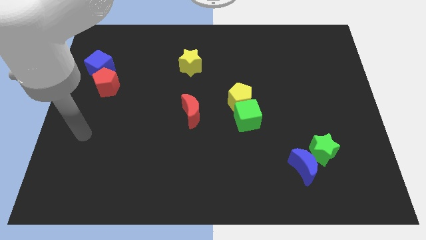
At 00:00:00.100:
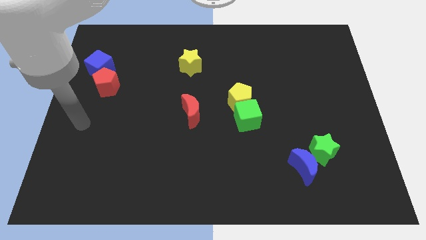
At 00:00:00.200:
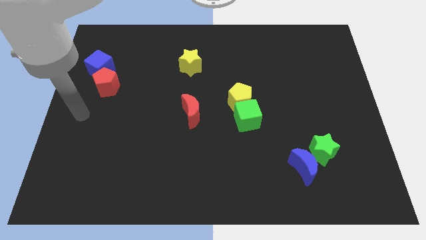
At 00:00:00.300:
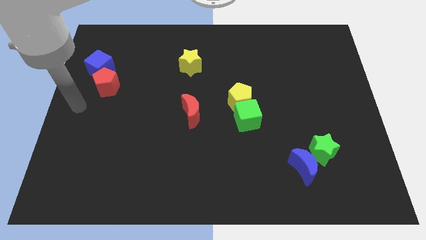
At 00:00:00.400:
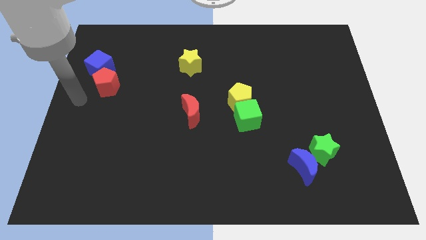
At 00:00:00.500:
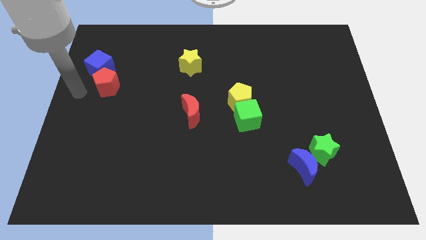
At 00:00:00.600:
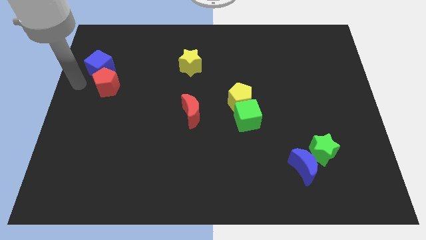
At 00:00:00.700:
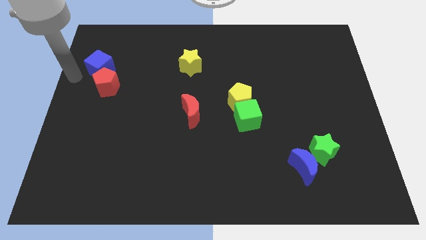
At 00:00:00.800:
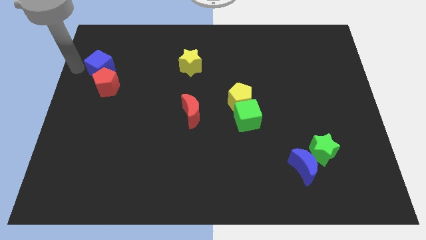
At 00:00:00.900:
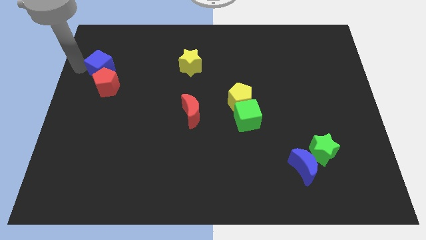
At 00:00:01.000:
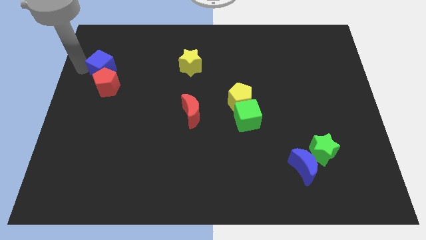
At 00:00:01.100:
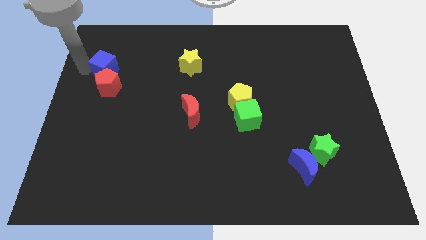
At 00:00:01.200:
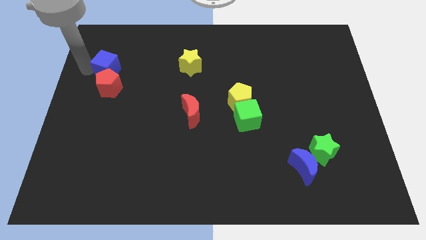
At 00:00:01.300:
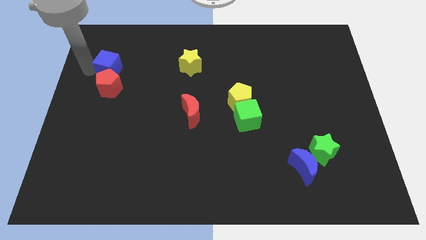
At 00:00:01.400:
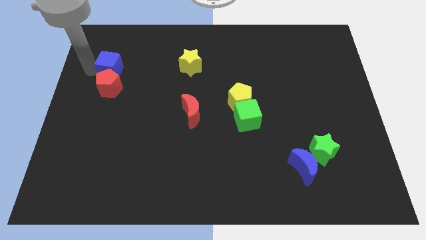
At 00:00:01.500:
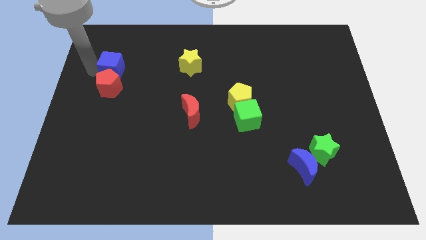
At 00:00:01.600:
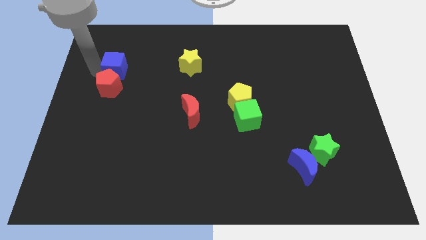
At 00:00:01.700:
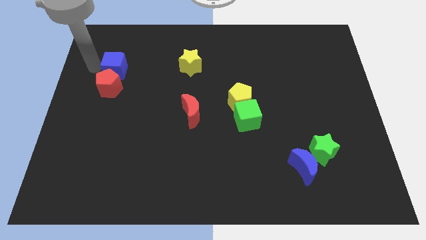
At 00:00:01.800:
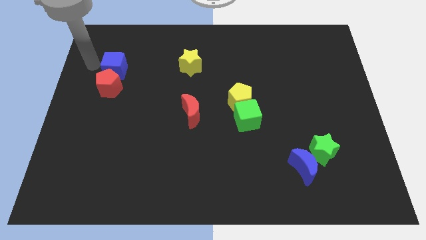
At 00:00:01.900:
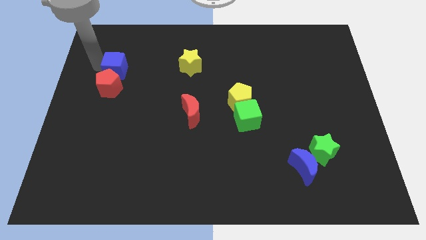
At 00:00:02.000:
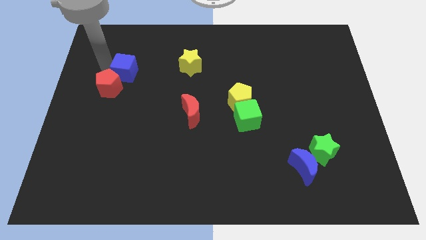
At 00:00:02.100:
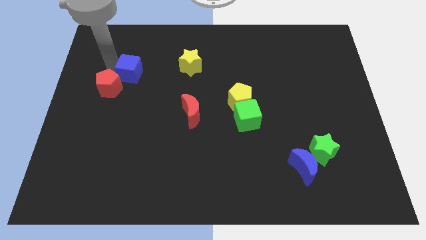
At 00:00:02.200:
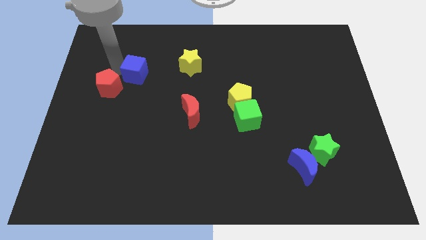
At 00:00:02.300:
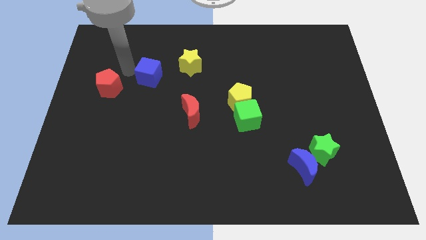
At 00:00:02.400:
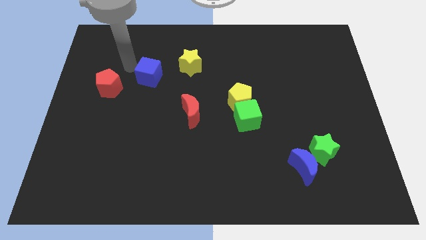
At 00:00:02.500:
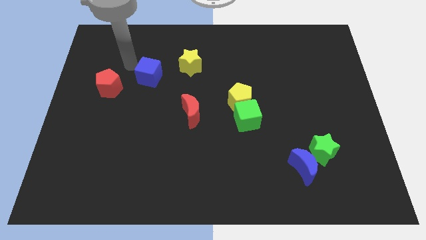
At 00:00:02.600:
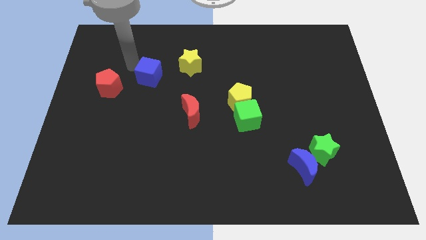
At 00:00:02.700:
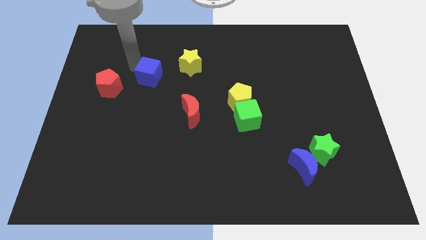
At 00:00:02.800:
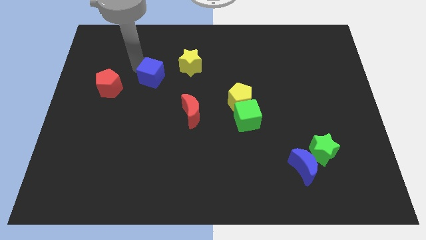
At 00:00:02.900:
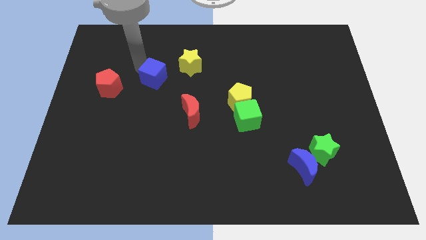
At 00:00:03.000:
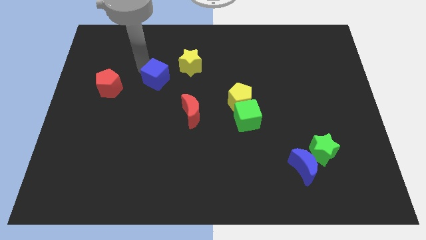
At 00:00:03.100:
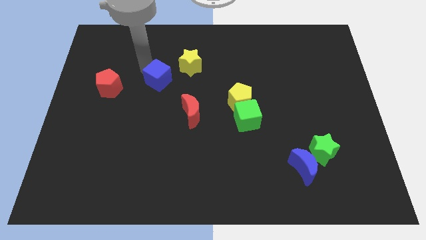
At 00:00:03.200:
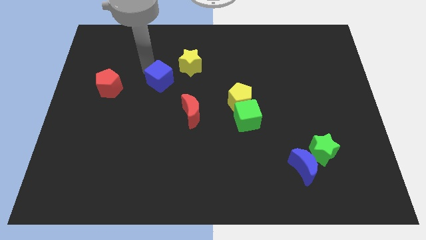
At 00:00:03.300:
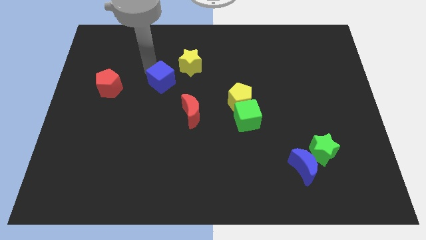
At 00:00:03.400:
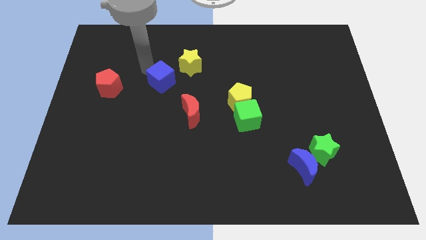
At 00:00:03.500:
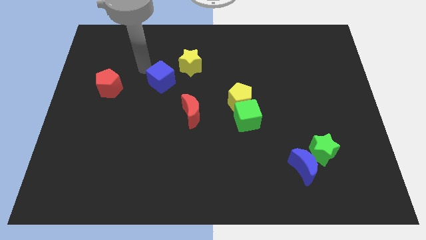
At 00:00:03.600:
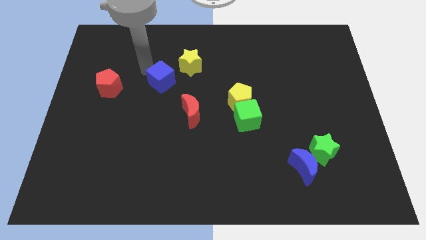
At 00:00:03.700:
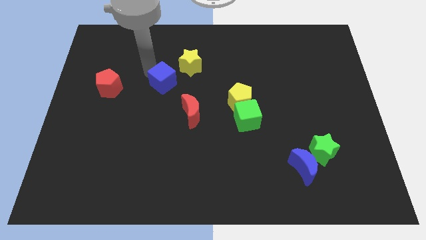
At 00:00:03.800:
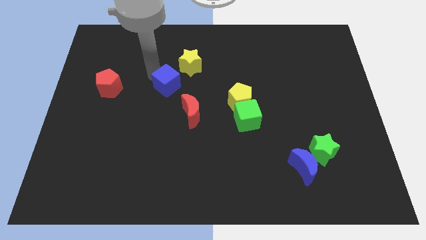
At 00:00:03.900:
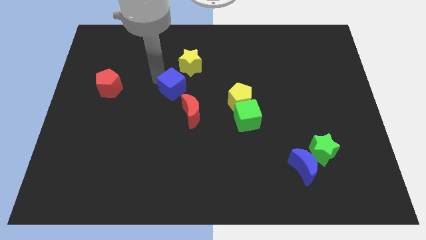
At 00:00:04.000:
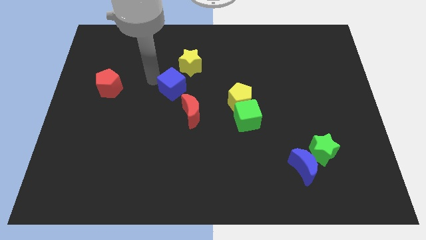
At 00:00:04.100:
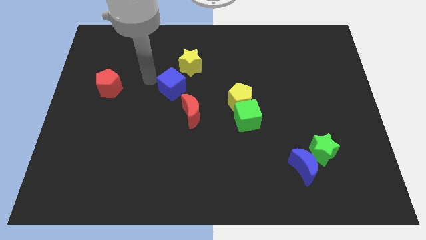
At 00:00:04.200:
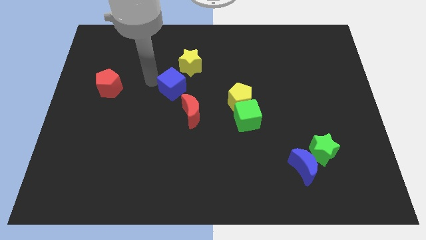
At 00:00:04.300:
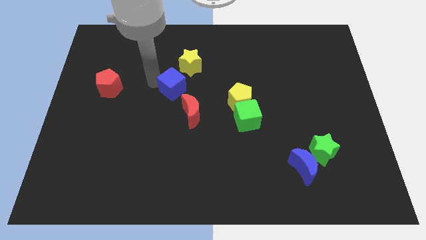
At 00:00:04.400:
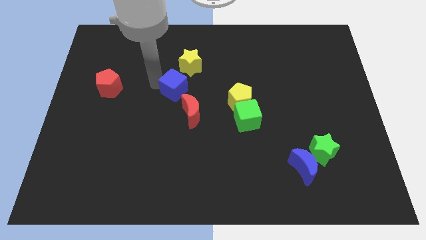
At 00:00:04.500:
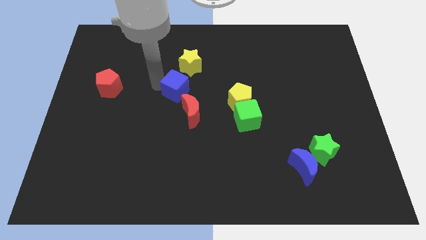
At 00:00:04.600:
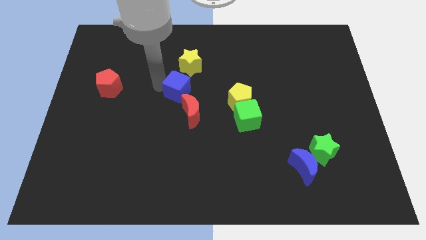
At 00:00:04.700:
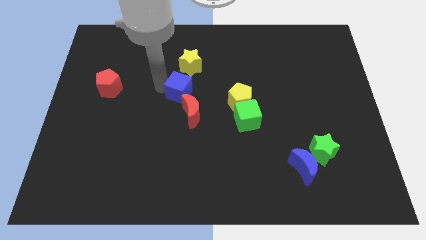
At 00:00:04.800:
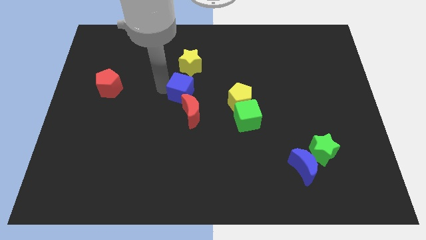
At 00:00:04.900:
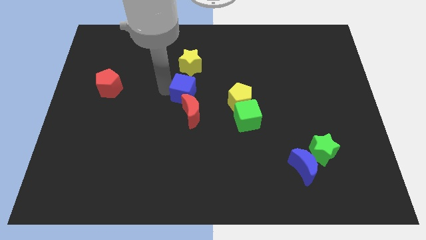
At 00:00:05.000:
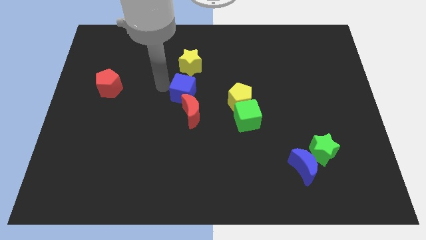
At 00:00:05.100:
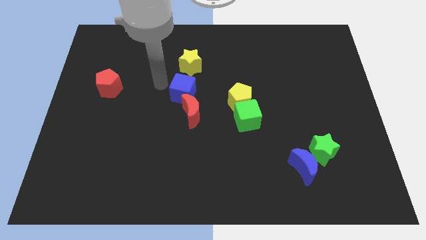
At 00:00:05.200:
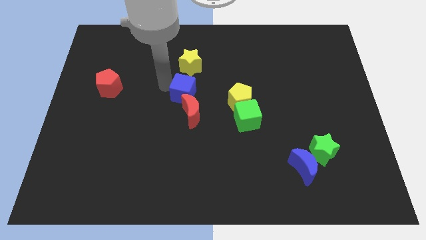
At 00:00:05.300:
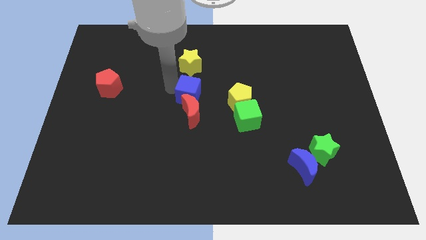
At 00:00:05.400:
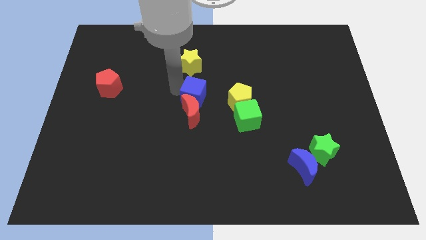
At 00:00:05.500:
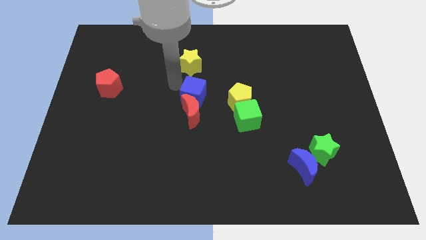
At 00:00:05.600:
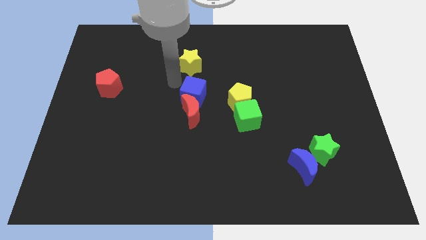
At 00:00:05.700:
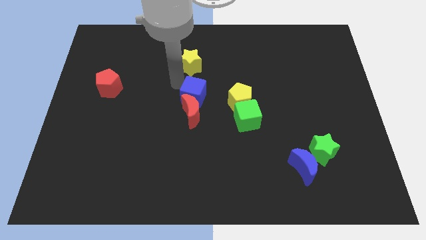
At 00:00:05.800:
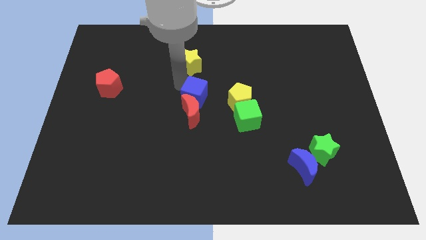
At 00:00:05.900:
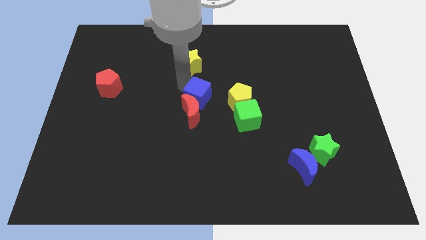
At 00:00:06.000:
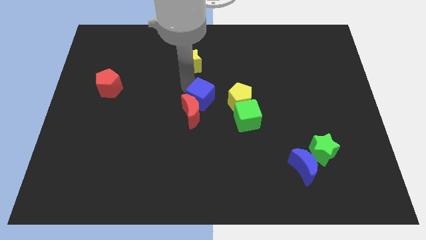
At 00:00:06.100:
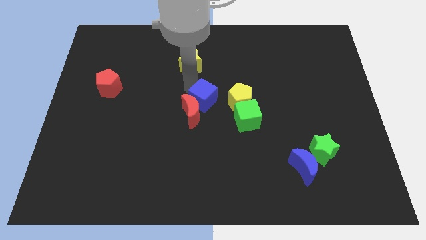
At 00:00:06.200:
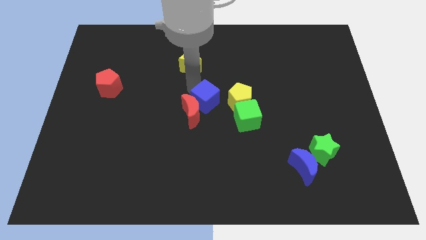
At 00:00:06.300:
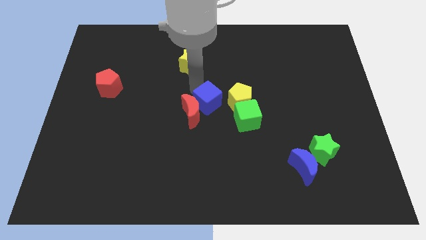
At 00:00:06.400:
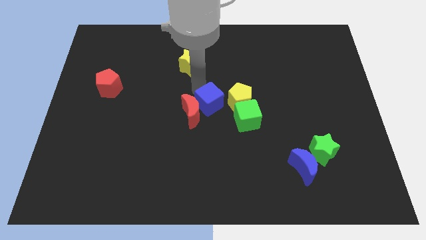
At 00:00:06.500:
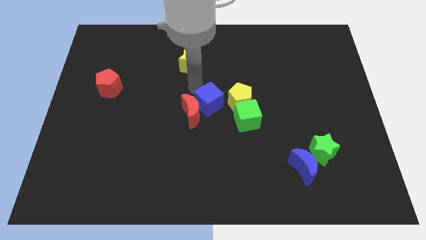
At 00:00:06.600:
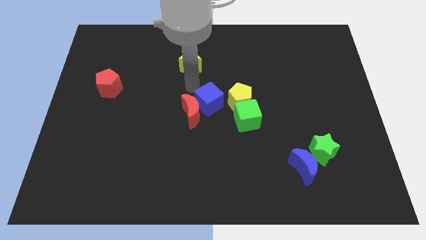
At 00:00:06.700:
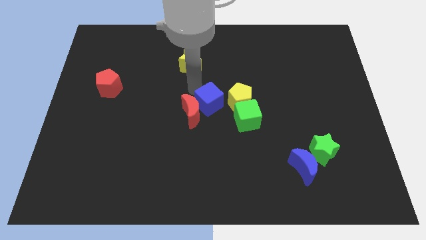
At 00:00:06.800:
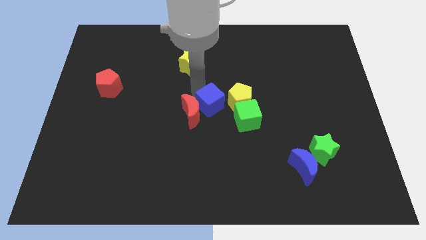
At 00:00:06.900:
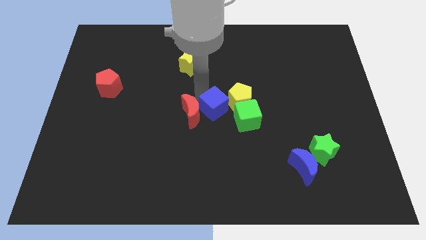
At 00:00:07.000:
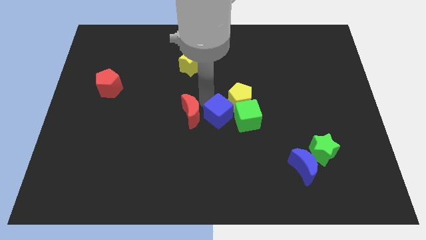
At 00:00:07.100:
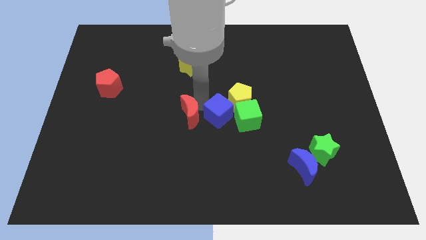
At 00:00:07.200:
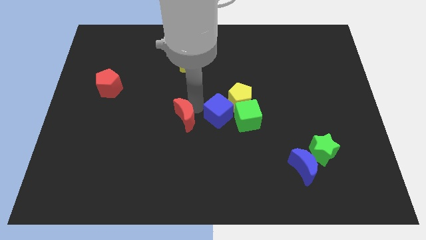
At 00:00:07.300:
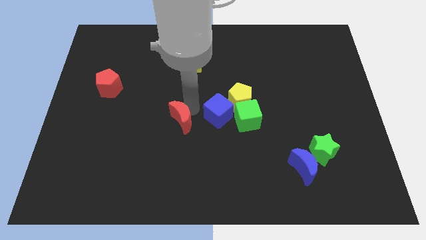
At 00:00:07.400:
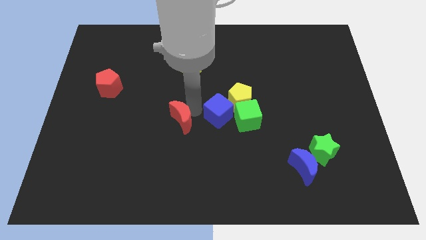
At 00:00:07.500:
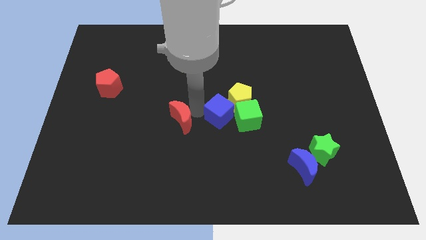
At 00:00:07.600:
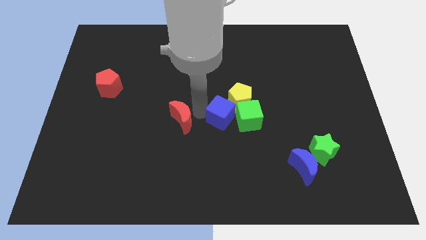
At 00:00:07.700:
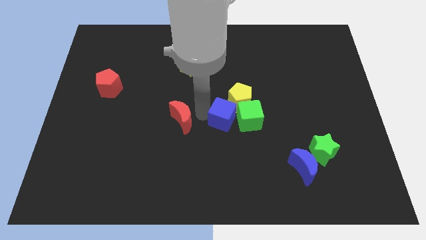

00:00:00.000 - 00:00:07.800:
push the blue cube close to the green cube

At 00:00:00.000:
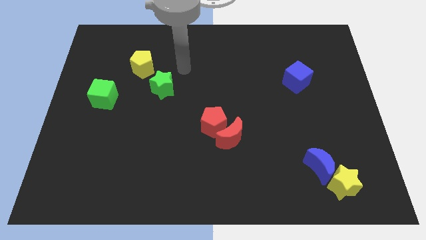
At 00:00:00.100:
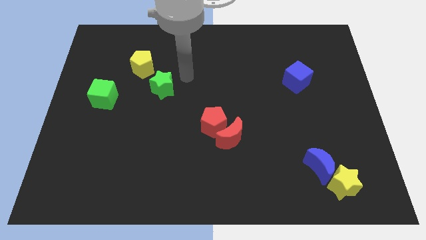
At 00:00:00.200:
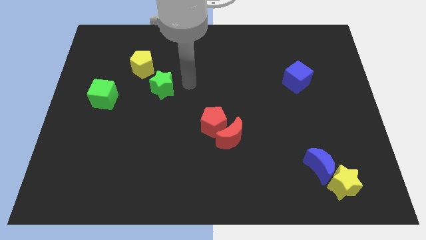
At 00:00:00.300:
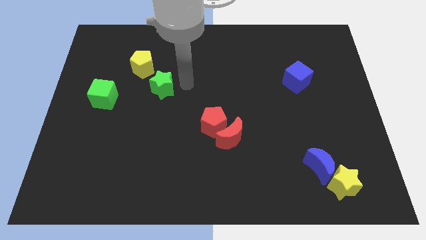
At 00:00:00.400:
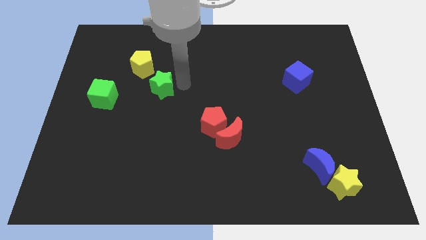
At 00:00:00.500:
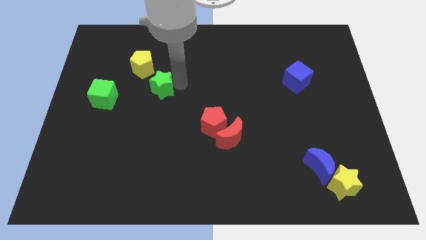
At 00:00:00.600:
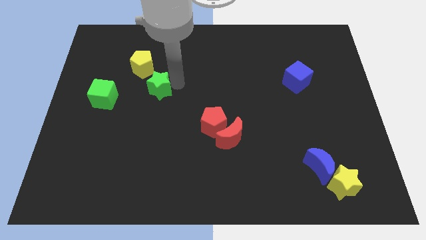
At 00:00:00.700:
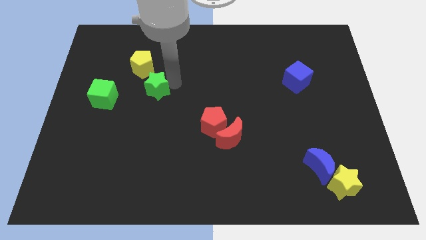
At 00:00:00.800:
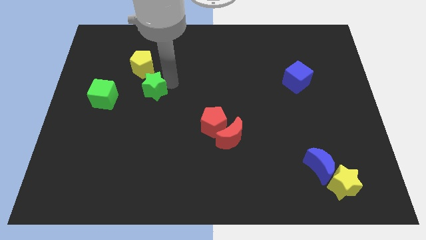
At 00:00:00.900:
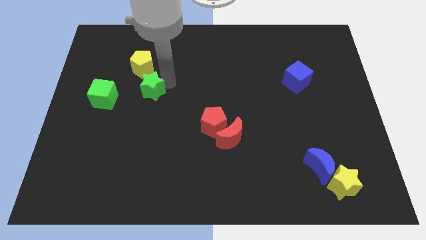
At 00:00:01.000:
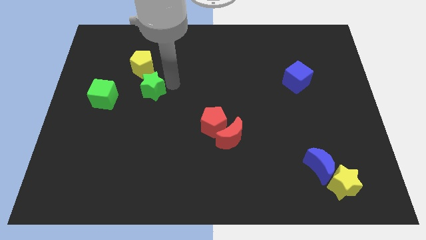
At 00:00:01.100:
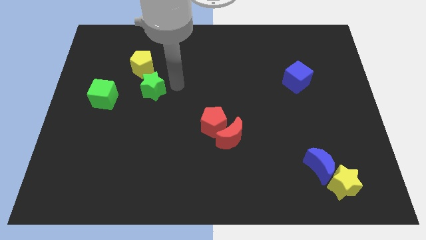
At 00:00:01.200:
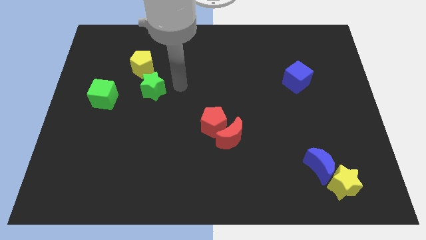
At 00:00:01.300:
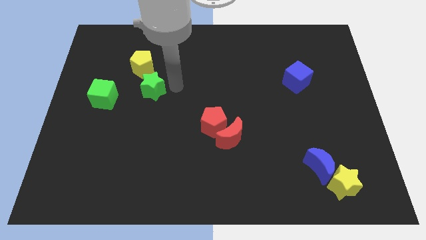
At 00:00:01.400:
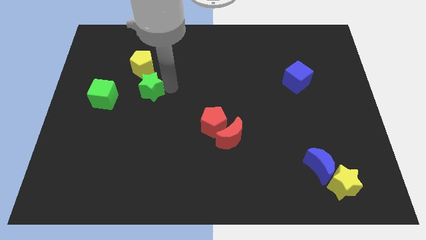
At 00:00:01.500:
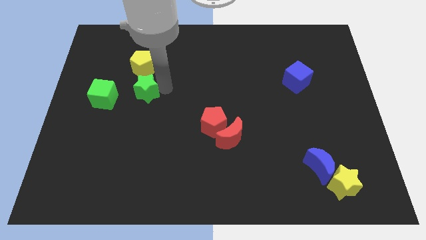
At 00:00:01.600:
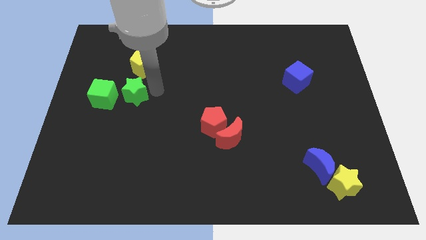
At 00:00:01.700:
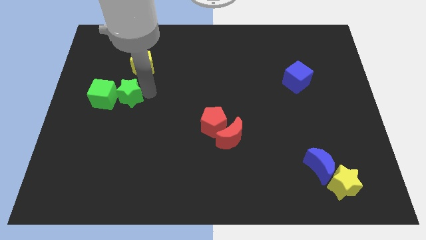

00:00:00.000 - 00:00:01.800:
push the green star next to the green cube
